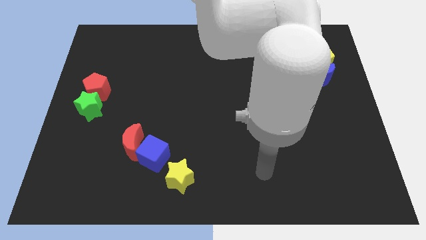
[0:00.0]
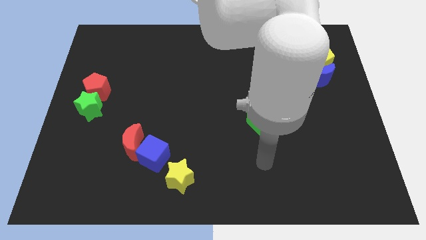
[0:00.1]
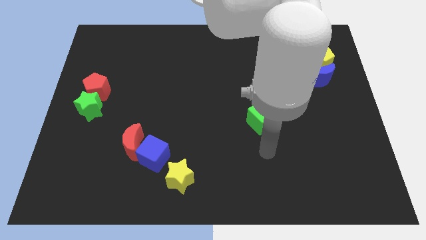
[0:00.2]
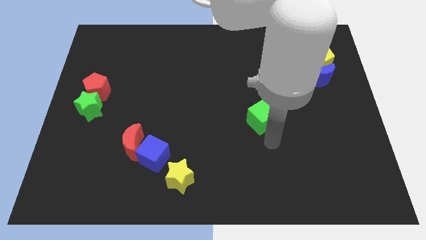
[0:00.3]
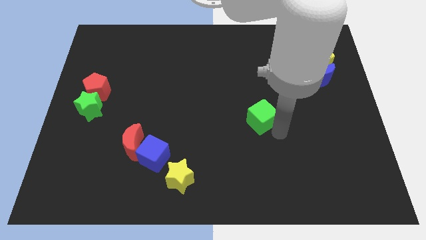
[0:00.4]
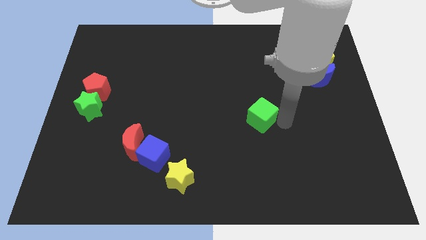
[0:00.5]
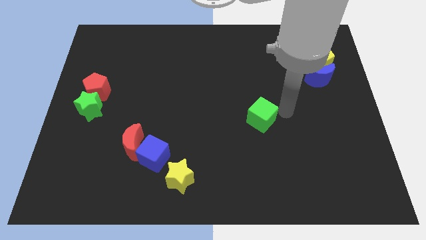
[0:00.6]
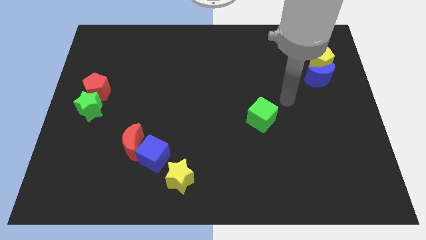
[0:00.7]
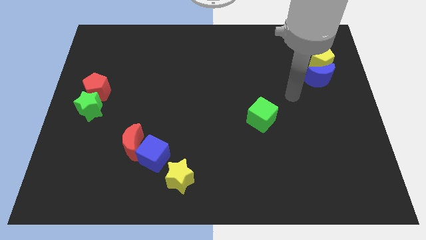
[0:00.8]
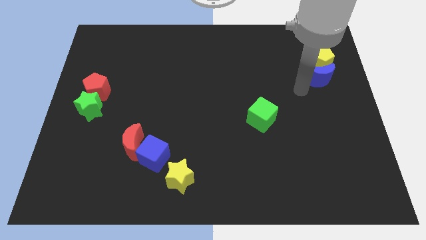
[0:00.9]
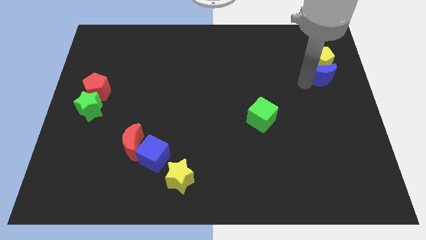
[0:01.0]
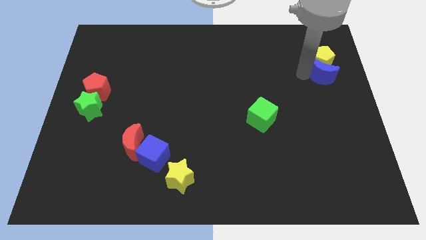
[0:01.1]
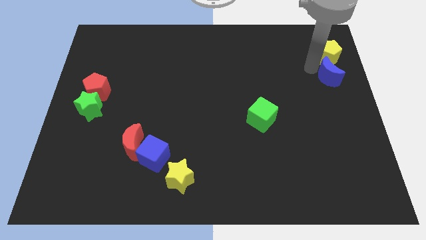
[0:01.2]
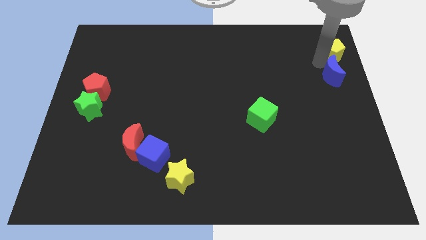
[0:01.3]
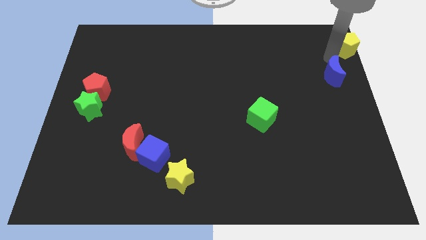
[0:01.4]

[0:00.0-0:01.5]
pull the blue moon apart from the yellow pentagon

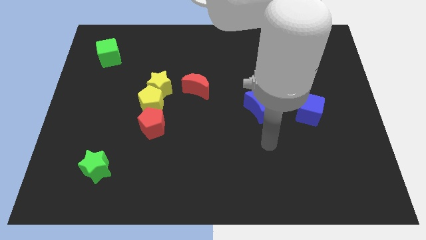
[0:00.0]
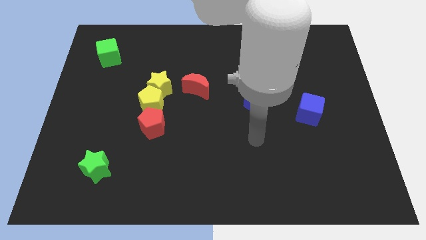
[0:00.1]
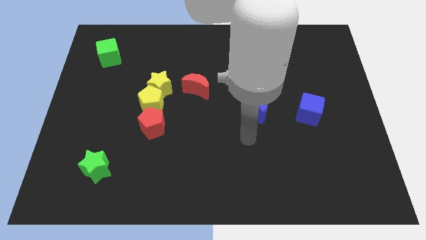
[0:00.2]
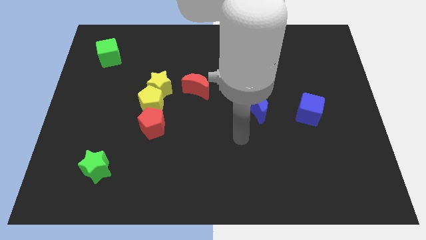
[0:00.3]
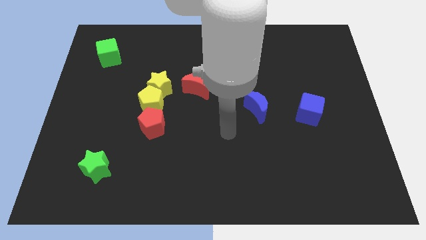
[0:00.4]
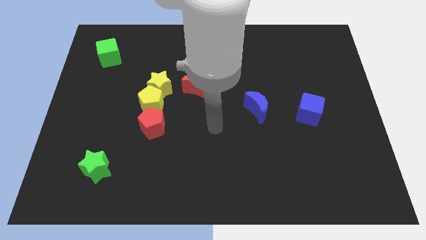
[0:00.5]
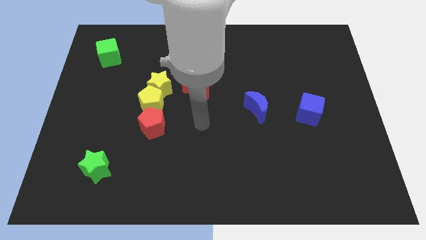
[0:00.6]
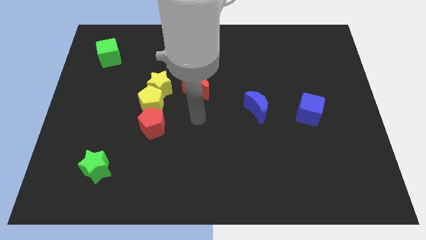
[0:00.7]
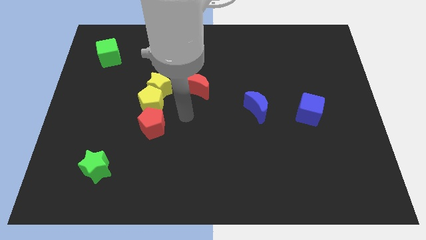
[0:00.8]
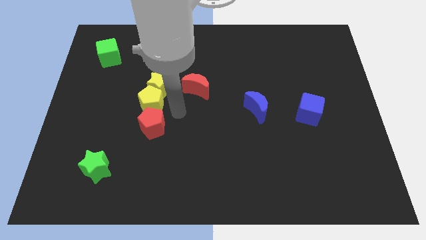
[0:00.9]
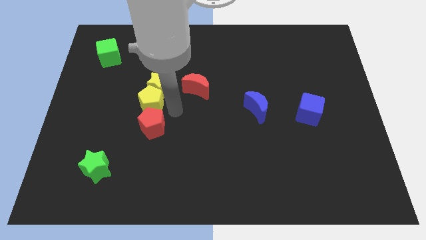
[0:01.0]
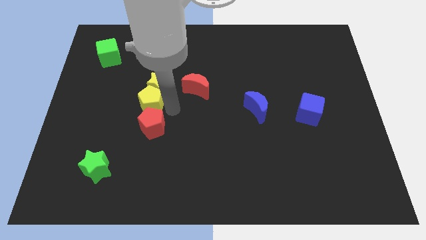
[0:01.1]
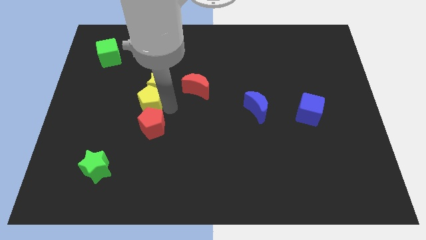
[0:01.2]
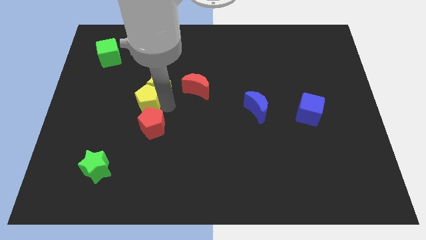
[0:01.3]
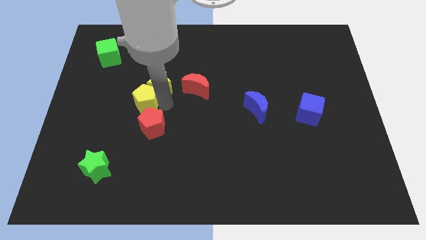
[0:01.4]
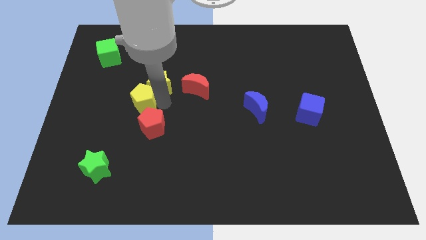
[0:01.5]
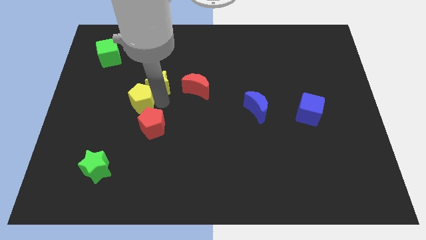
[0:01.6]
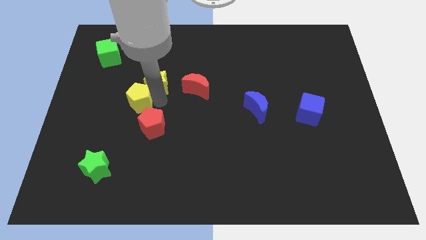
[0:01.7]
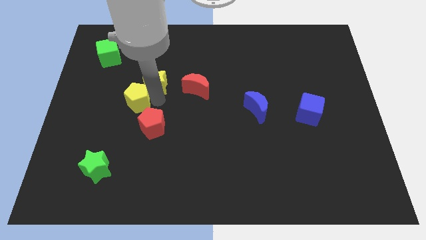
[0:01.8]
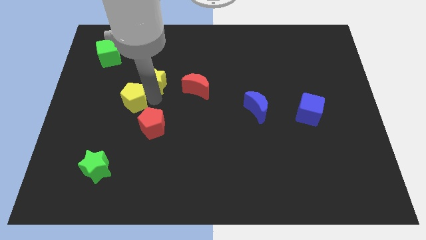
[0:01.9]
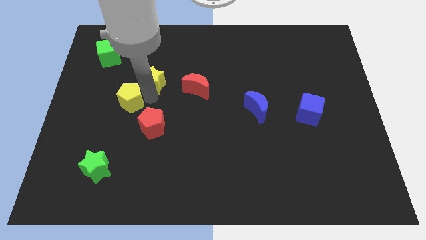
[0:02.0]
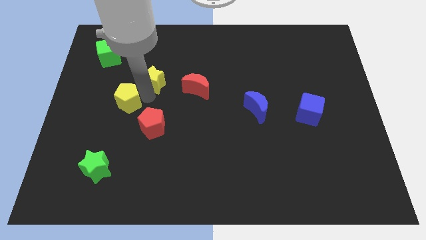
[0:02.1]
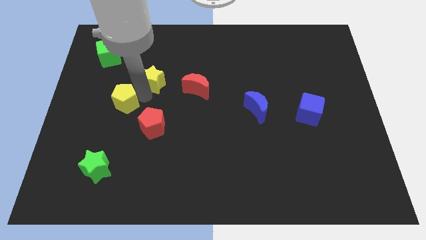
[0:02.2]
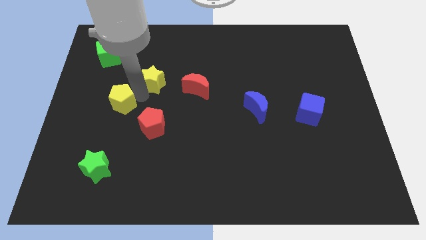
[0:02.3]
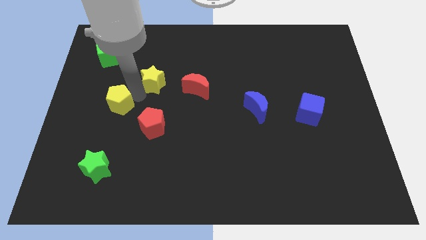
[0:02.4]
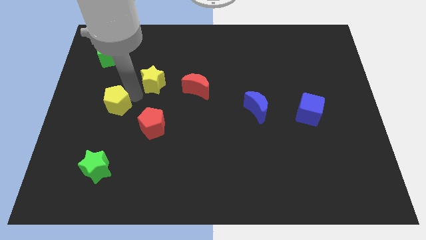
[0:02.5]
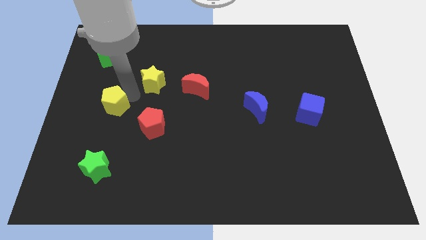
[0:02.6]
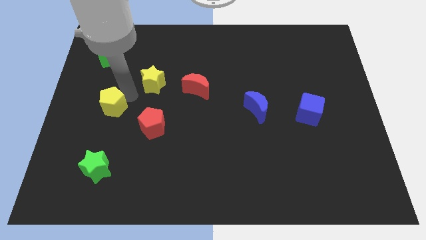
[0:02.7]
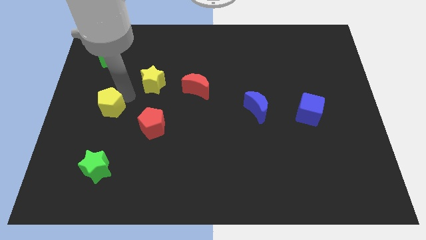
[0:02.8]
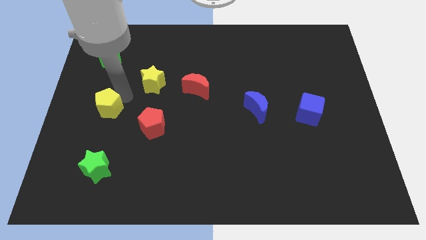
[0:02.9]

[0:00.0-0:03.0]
pull the yellow pentagon apart from the yellow star and red pentagon

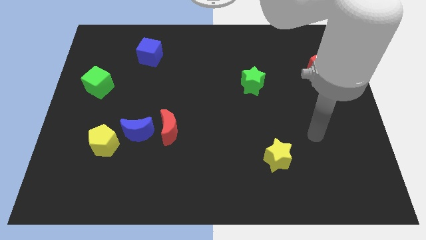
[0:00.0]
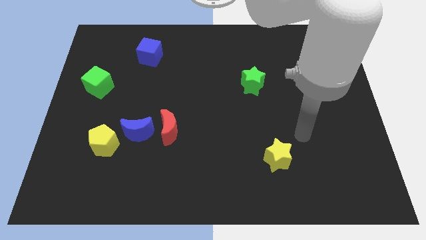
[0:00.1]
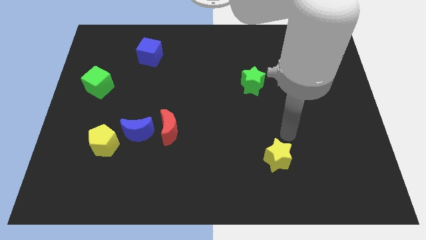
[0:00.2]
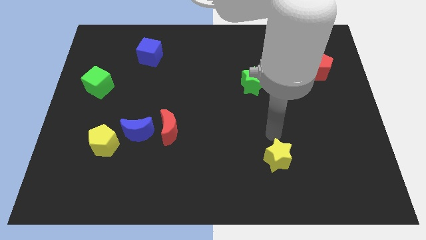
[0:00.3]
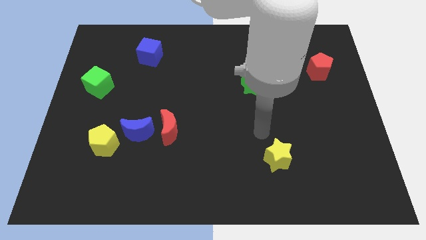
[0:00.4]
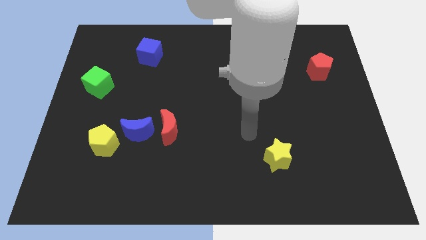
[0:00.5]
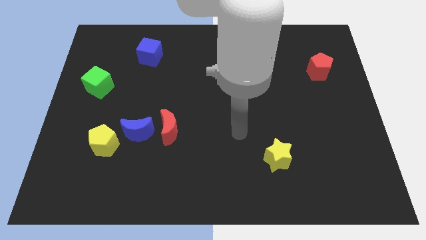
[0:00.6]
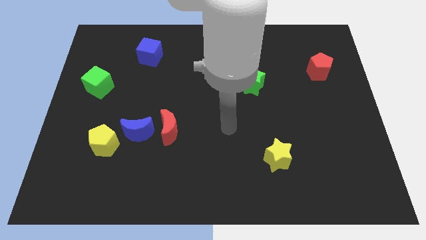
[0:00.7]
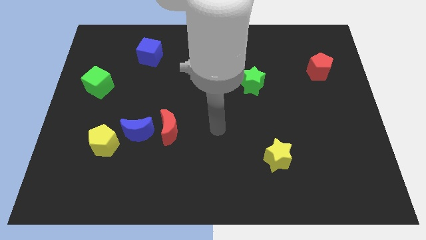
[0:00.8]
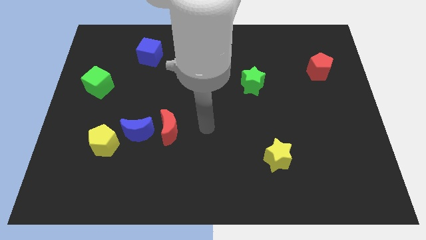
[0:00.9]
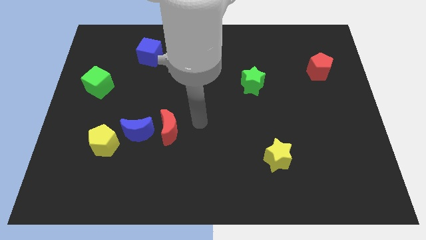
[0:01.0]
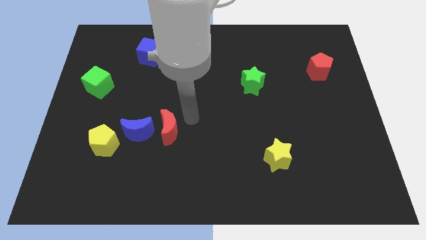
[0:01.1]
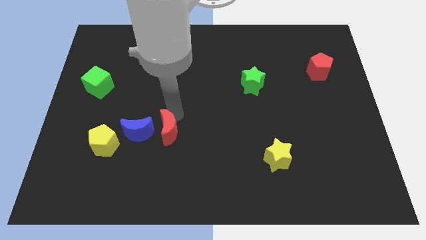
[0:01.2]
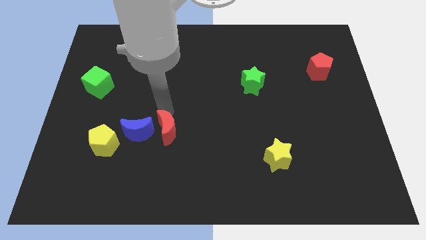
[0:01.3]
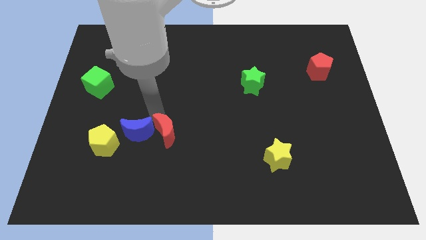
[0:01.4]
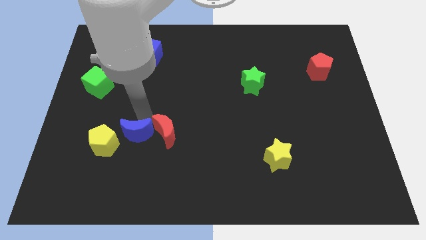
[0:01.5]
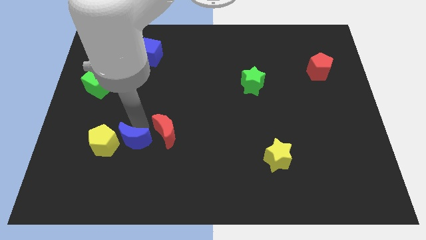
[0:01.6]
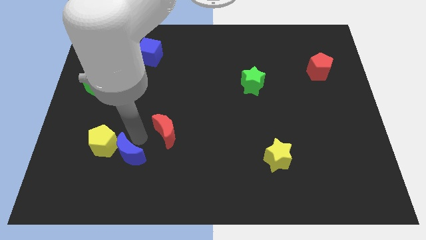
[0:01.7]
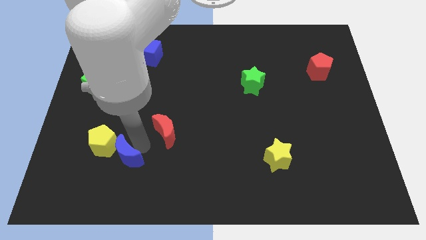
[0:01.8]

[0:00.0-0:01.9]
move the red moon away from the blue moon

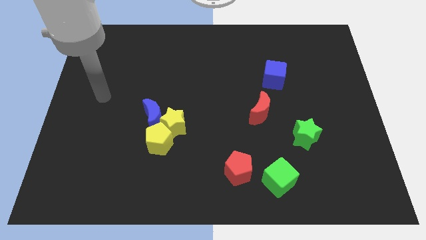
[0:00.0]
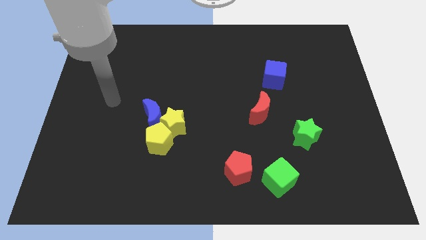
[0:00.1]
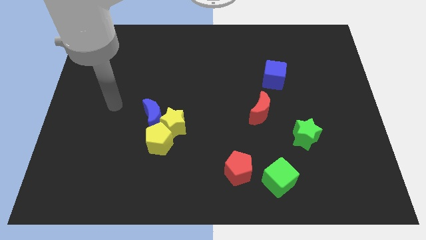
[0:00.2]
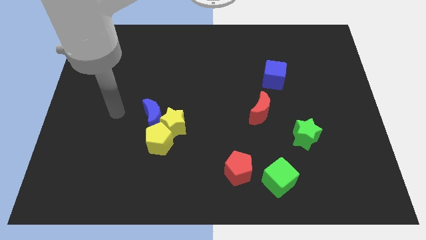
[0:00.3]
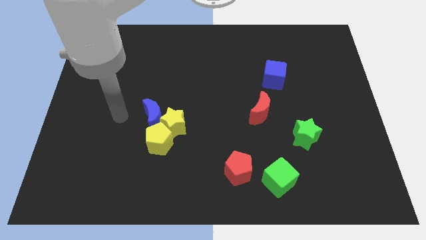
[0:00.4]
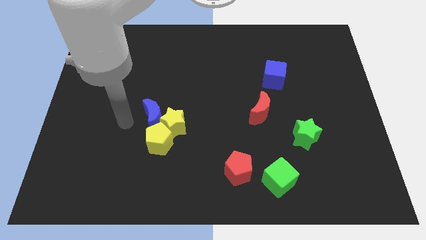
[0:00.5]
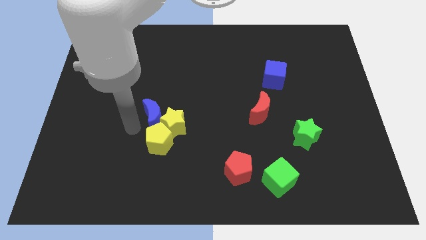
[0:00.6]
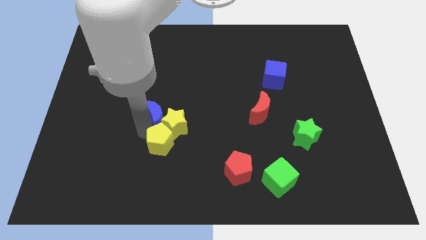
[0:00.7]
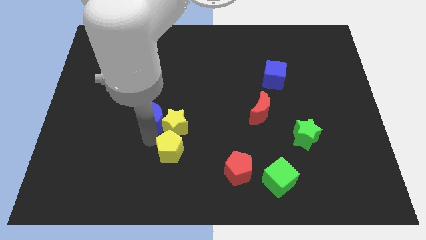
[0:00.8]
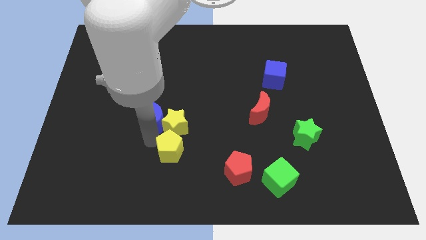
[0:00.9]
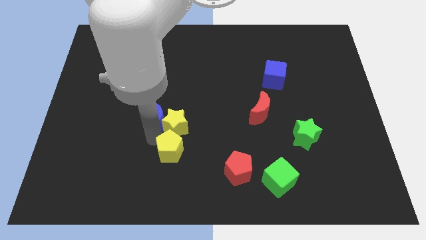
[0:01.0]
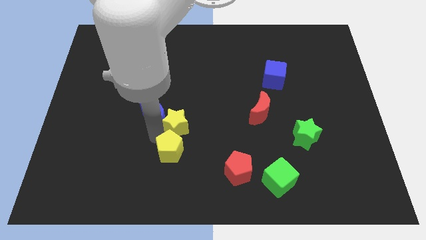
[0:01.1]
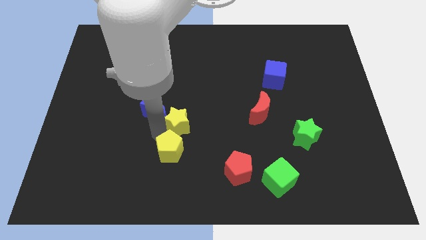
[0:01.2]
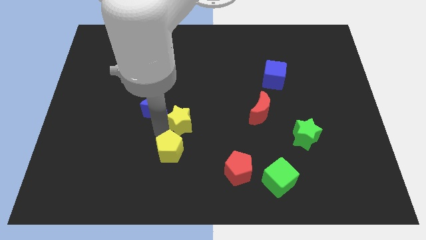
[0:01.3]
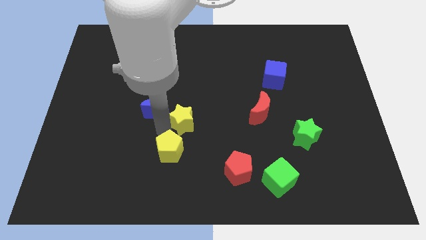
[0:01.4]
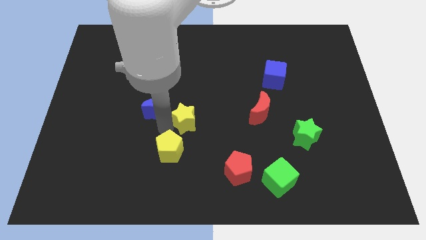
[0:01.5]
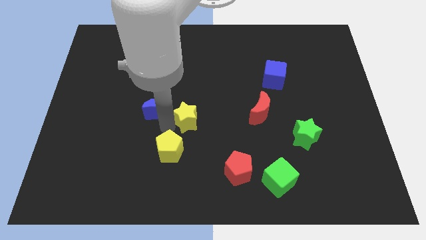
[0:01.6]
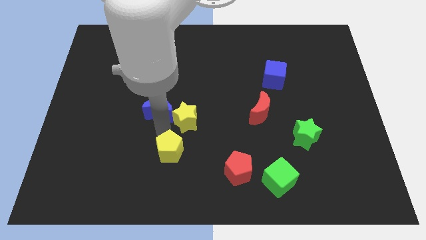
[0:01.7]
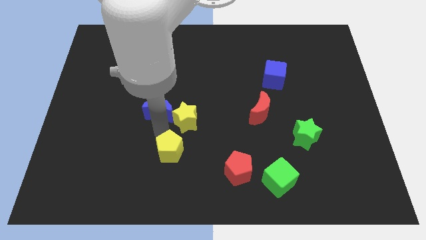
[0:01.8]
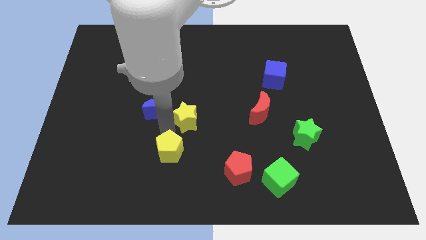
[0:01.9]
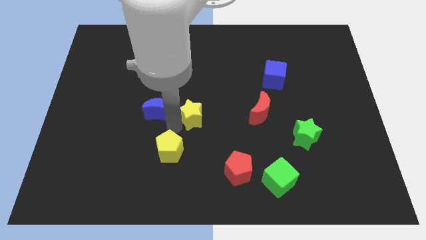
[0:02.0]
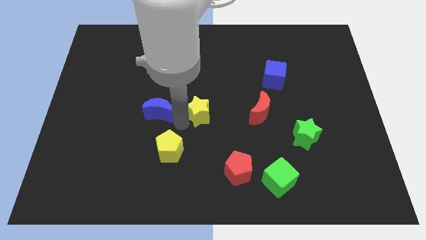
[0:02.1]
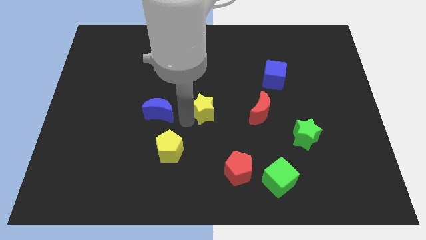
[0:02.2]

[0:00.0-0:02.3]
pull the yellow star apart from the blue moon and yellow pentagon

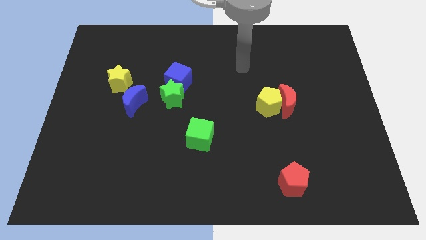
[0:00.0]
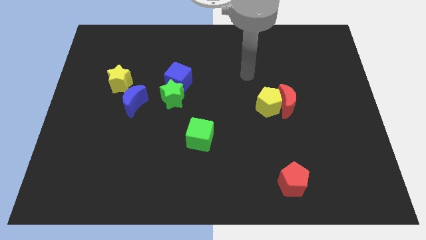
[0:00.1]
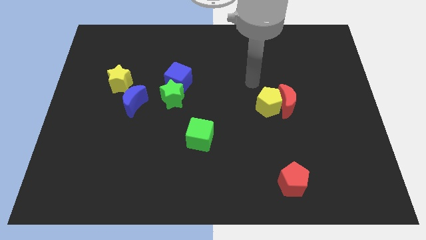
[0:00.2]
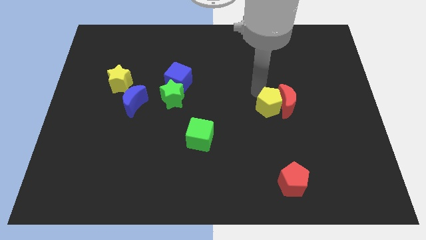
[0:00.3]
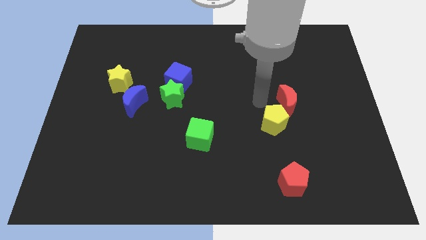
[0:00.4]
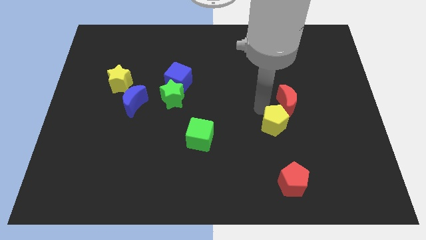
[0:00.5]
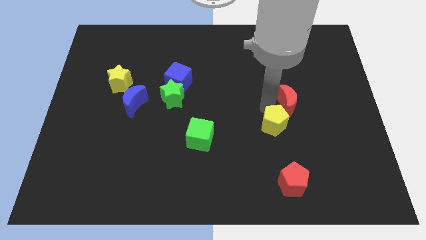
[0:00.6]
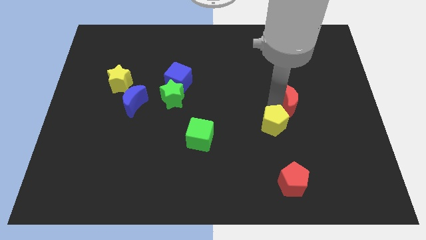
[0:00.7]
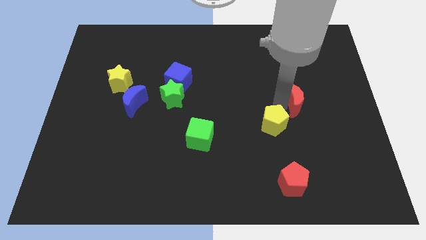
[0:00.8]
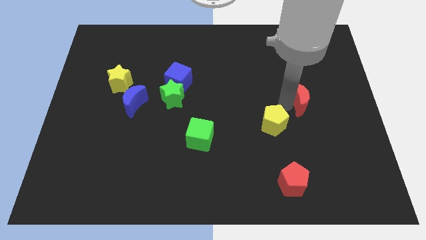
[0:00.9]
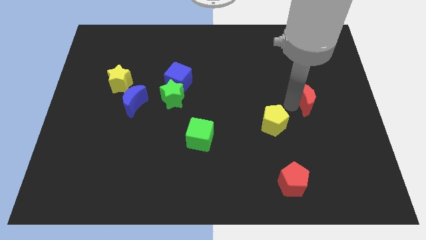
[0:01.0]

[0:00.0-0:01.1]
separate the red moon from the yellow pentagon
